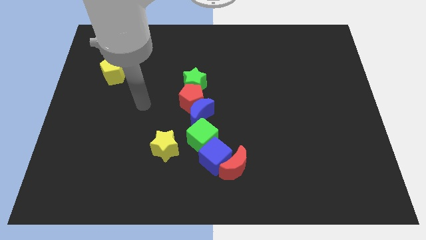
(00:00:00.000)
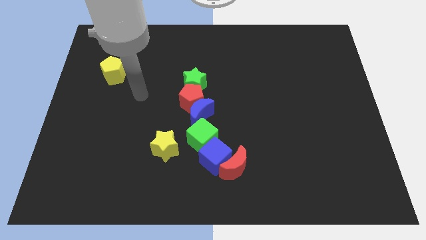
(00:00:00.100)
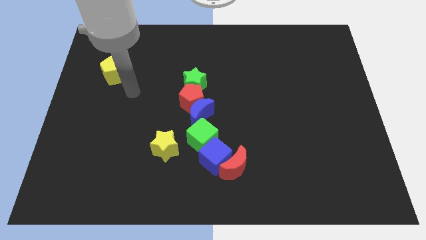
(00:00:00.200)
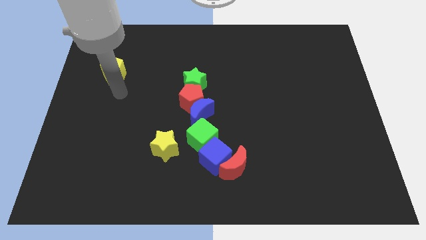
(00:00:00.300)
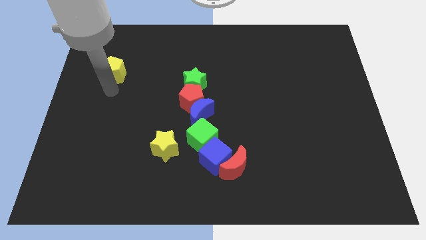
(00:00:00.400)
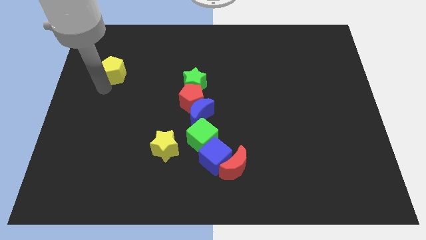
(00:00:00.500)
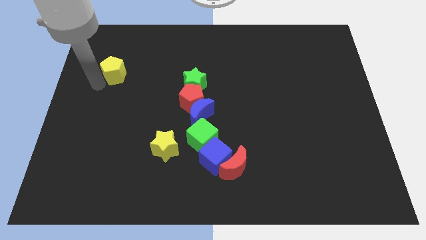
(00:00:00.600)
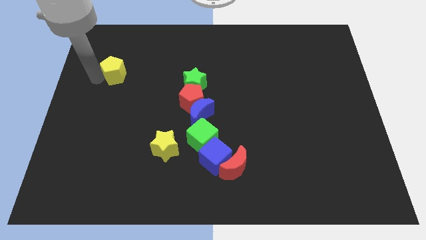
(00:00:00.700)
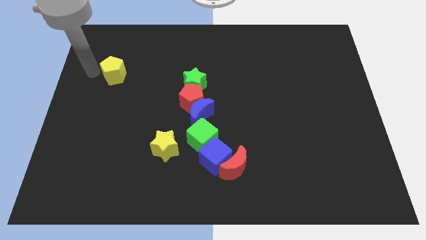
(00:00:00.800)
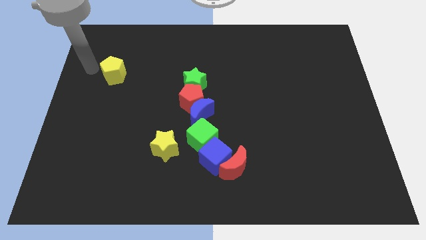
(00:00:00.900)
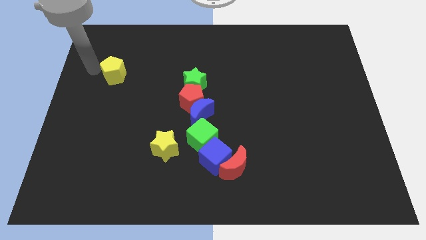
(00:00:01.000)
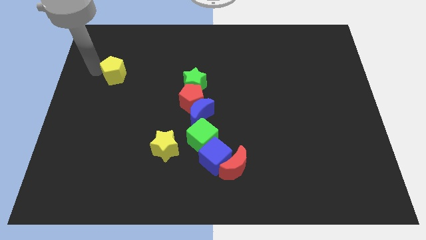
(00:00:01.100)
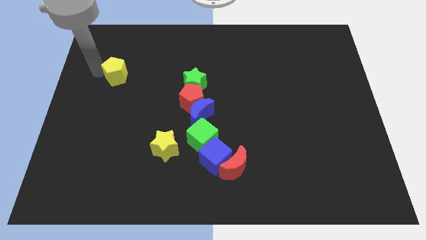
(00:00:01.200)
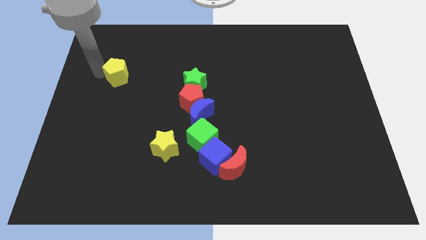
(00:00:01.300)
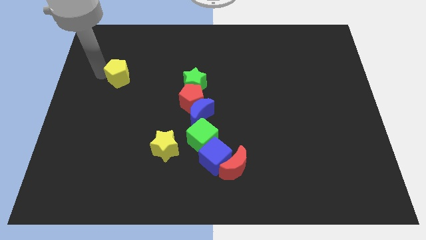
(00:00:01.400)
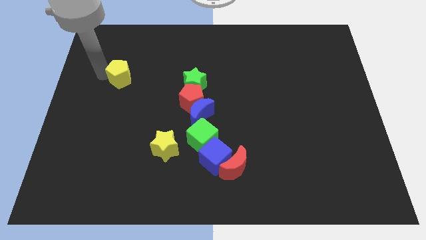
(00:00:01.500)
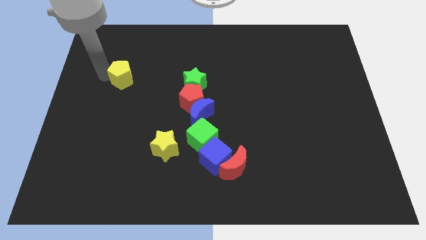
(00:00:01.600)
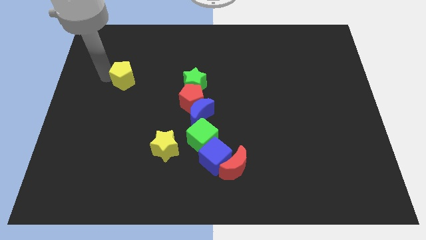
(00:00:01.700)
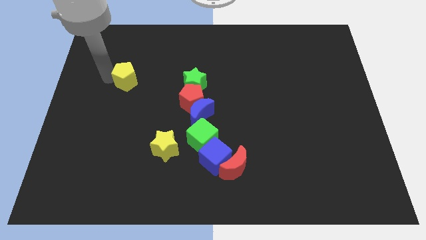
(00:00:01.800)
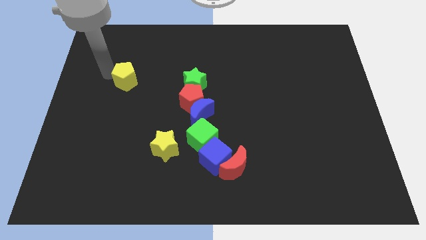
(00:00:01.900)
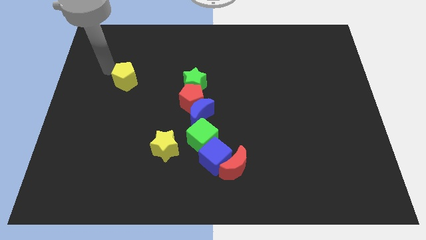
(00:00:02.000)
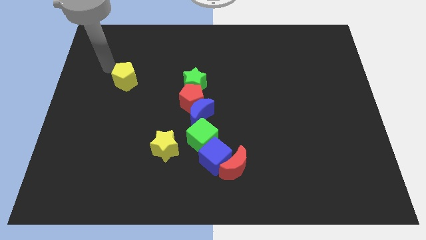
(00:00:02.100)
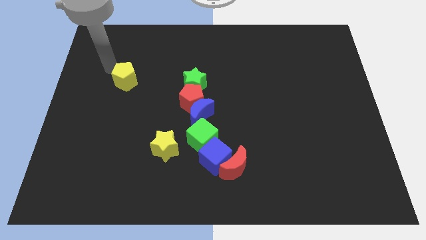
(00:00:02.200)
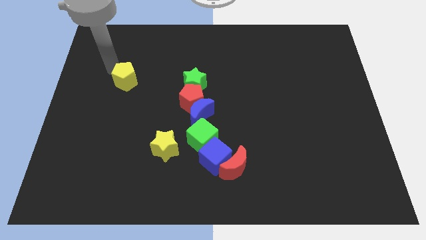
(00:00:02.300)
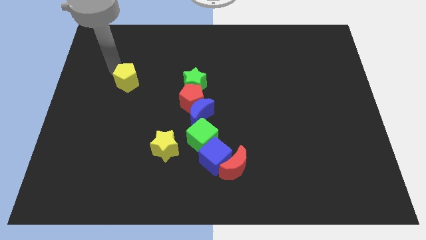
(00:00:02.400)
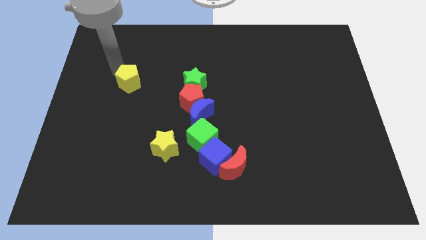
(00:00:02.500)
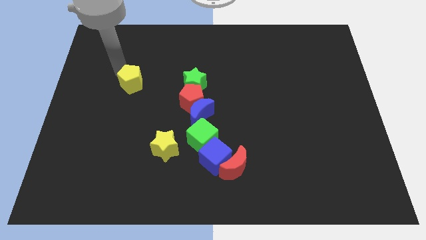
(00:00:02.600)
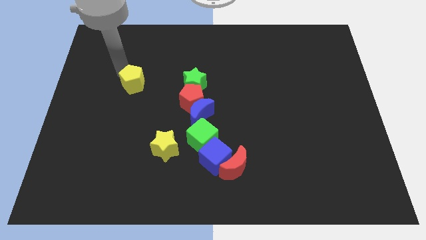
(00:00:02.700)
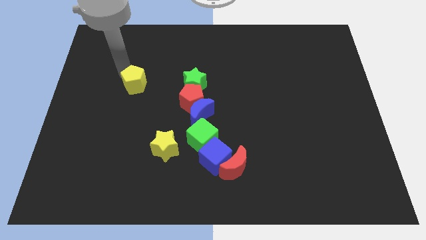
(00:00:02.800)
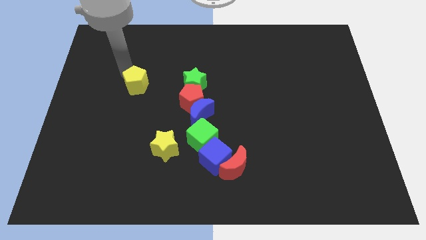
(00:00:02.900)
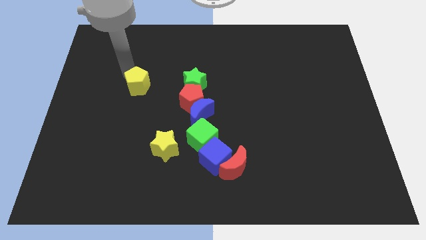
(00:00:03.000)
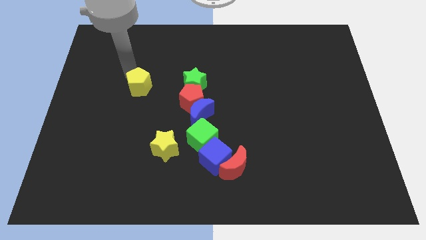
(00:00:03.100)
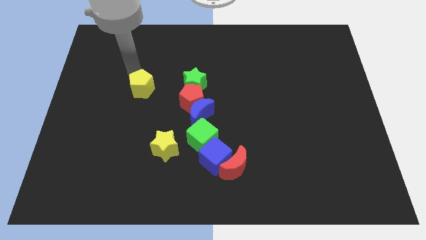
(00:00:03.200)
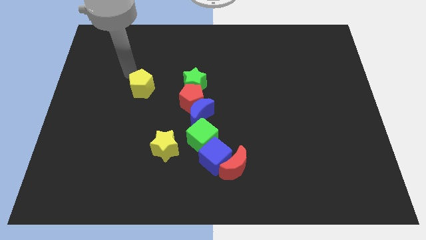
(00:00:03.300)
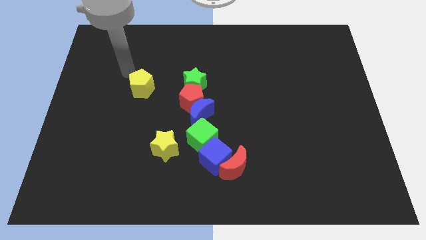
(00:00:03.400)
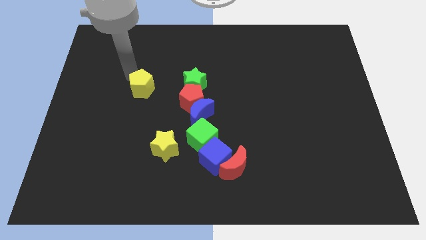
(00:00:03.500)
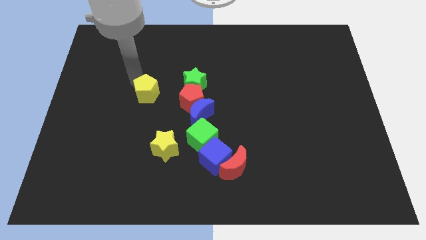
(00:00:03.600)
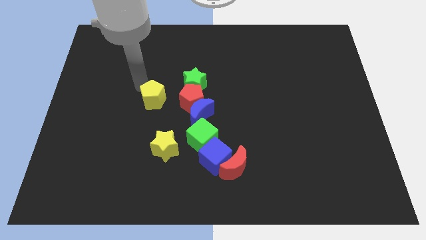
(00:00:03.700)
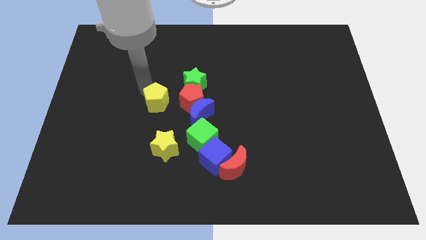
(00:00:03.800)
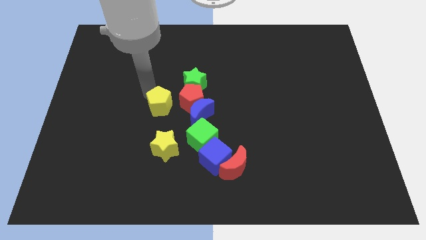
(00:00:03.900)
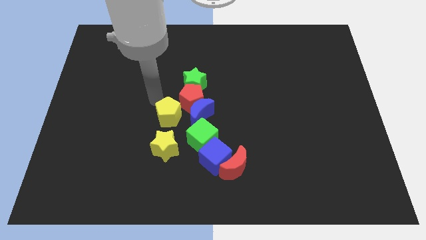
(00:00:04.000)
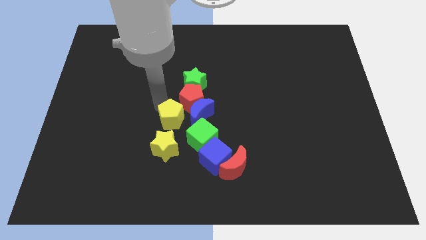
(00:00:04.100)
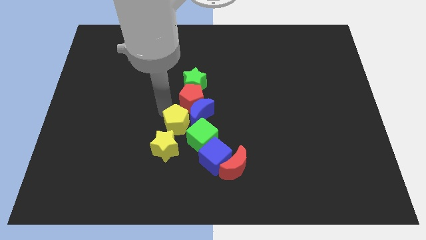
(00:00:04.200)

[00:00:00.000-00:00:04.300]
slide the yellow pentagon to the top left side of the blue cube

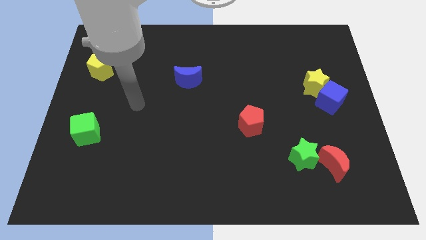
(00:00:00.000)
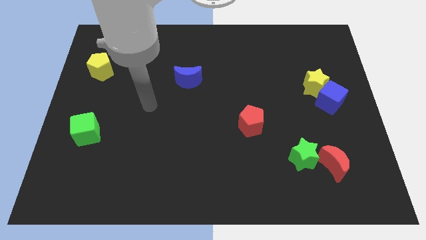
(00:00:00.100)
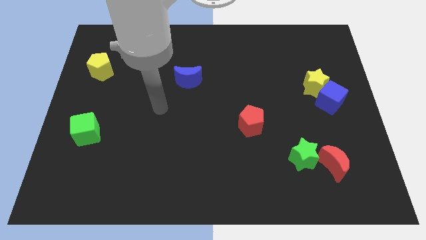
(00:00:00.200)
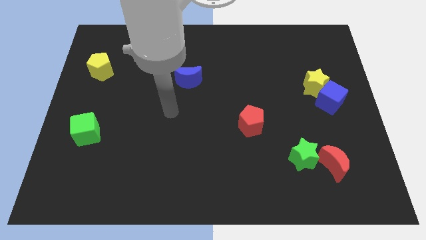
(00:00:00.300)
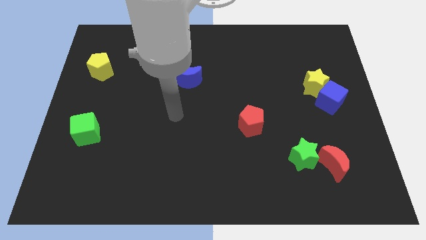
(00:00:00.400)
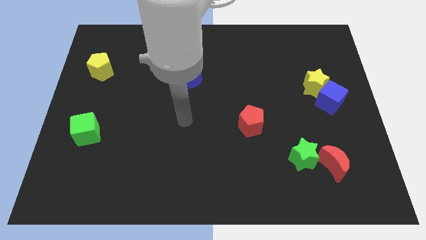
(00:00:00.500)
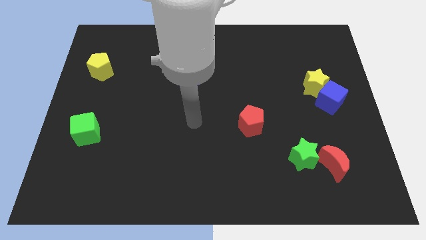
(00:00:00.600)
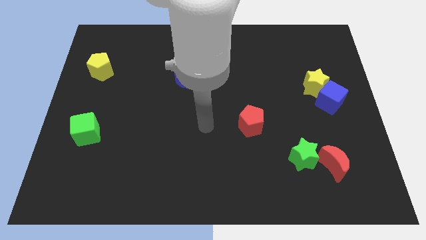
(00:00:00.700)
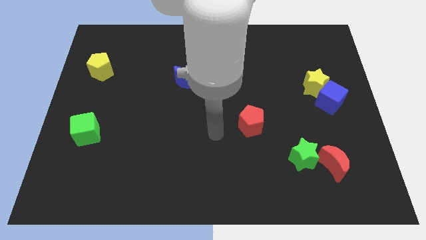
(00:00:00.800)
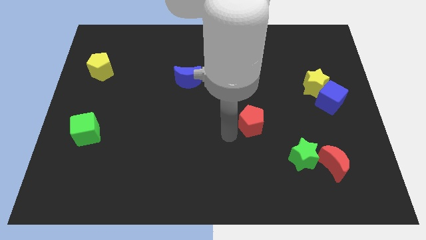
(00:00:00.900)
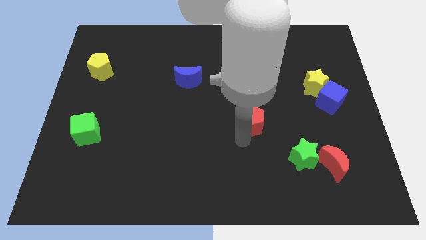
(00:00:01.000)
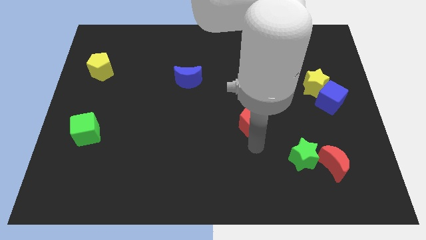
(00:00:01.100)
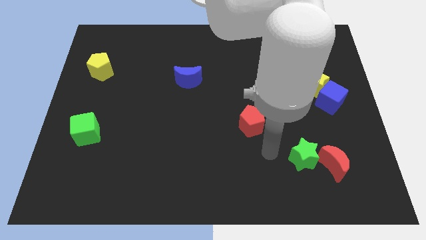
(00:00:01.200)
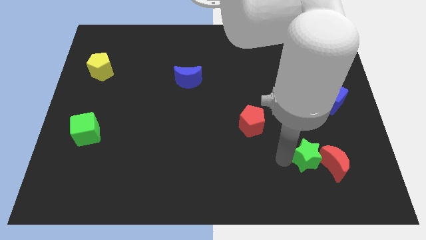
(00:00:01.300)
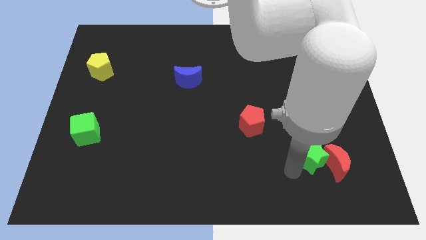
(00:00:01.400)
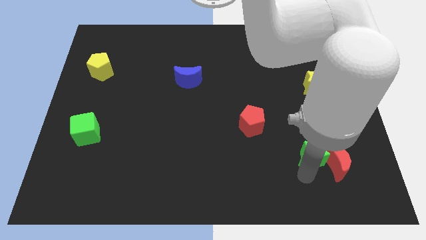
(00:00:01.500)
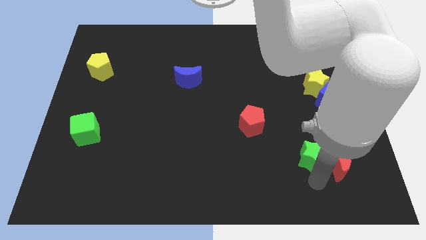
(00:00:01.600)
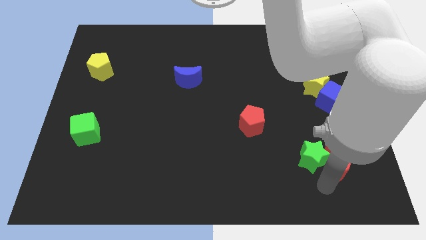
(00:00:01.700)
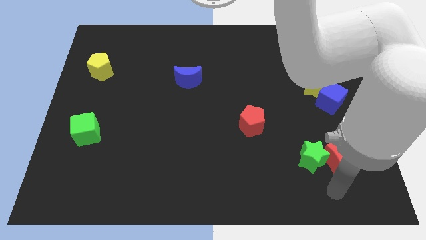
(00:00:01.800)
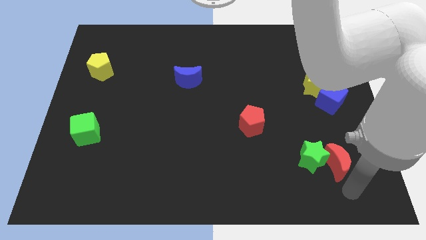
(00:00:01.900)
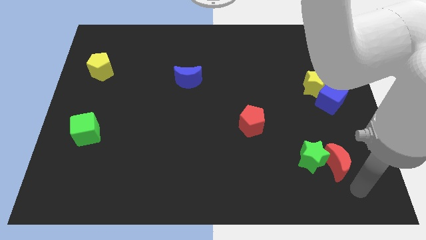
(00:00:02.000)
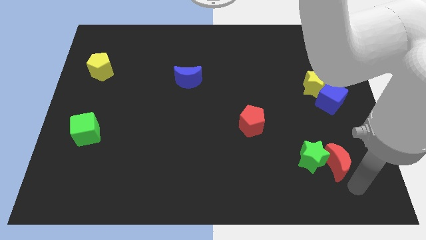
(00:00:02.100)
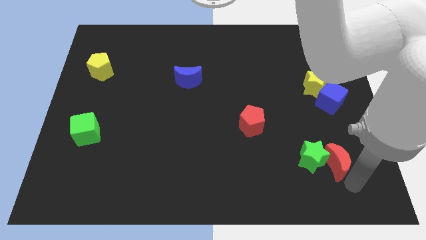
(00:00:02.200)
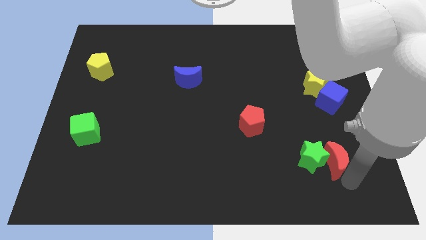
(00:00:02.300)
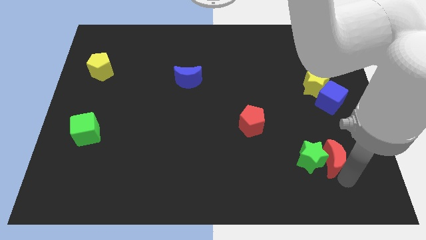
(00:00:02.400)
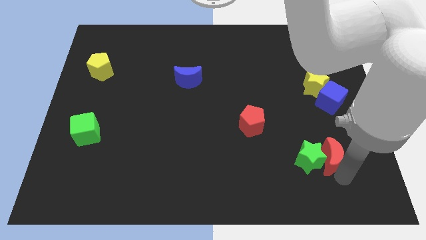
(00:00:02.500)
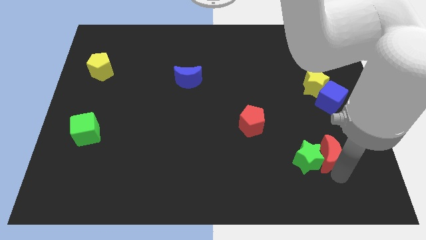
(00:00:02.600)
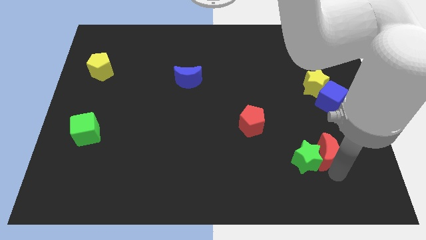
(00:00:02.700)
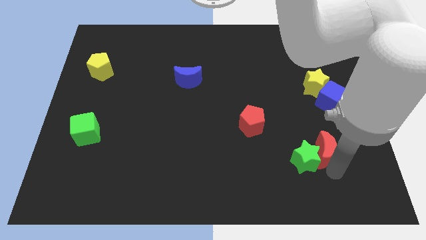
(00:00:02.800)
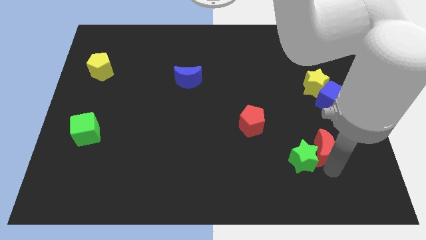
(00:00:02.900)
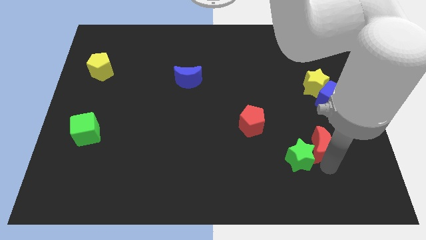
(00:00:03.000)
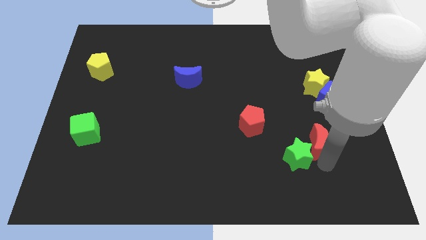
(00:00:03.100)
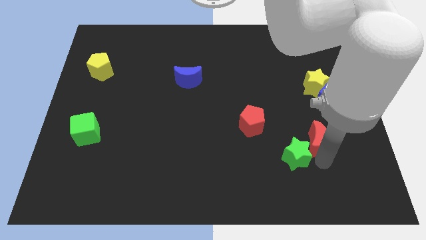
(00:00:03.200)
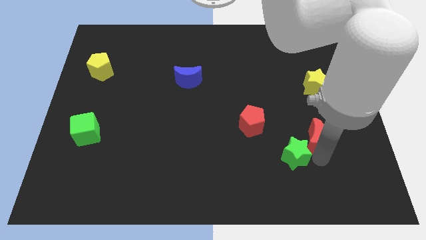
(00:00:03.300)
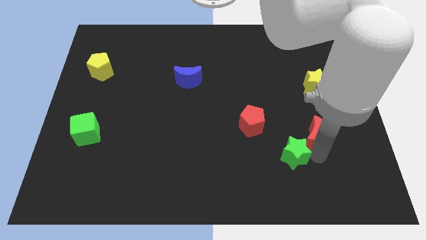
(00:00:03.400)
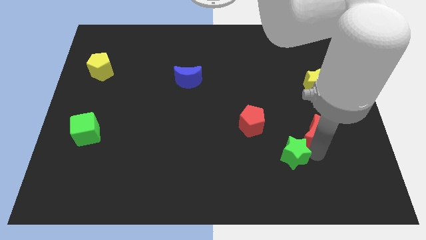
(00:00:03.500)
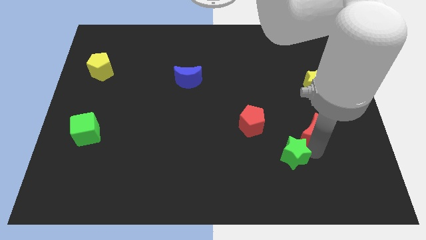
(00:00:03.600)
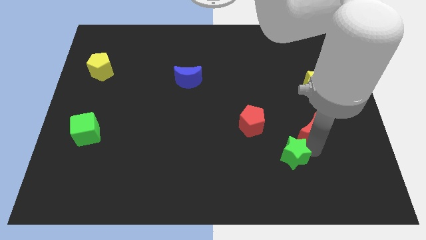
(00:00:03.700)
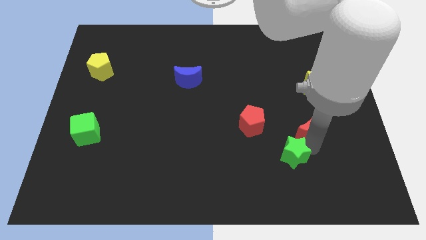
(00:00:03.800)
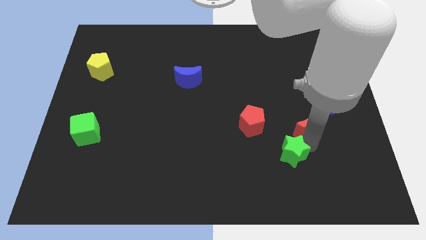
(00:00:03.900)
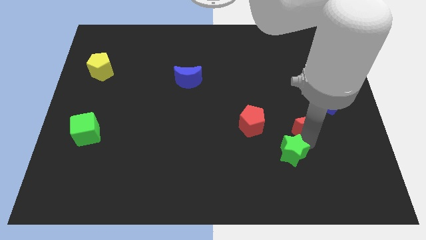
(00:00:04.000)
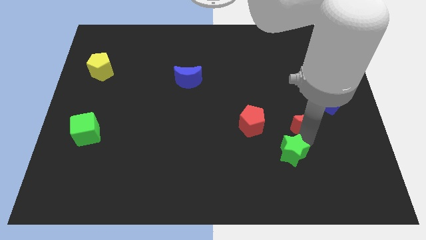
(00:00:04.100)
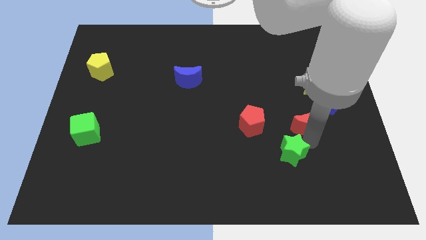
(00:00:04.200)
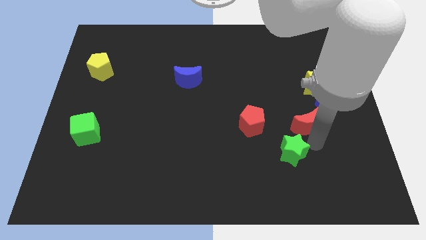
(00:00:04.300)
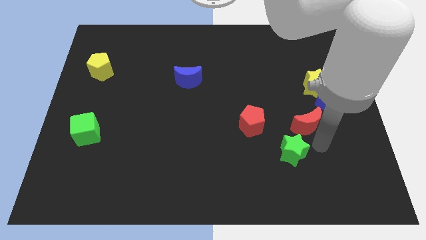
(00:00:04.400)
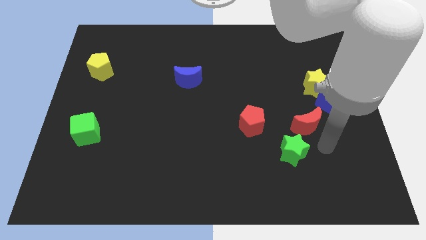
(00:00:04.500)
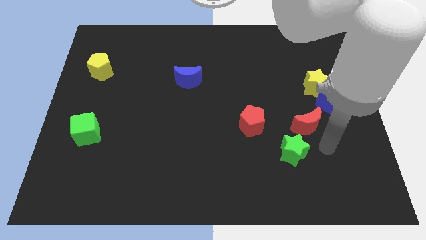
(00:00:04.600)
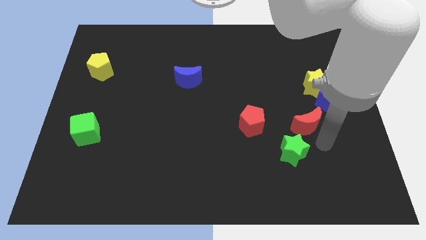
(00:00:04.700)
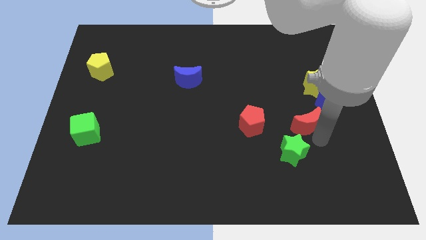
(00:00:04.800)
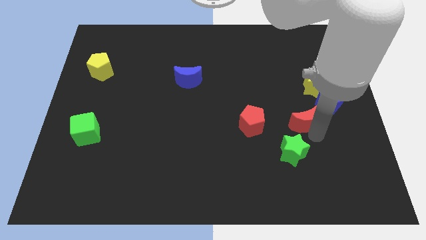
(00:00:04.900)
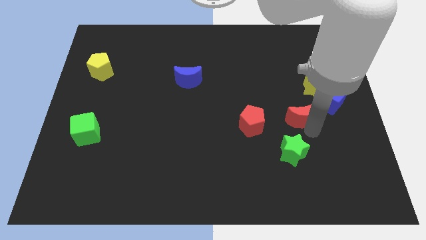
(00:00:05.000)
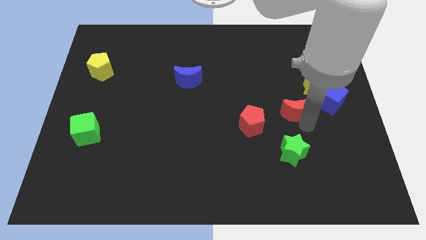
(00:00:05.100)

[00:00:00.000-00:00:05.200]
slide the red moon to the left side of the blue cube
